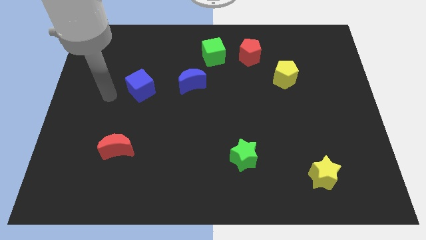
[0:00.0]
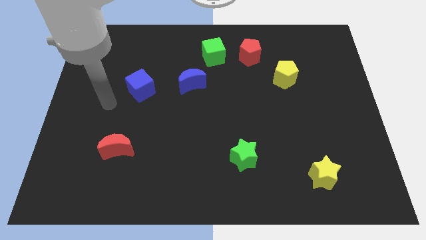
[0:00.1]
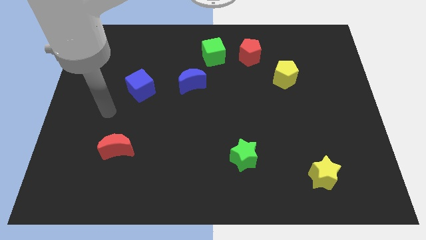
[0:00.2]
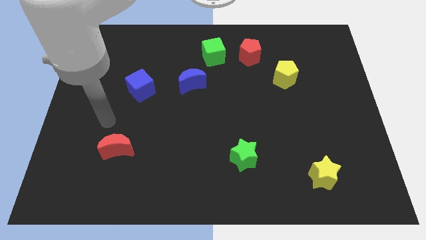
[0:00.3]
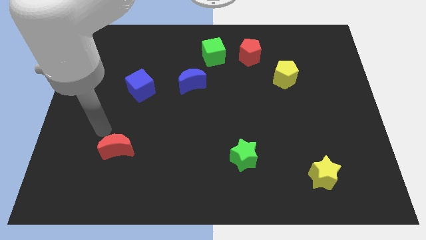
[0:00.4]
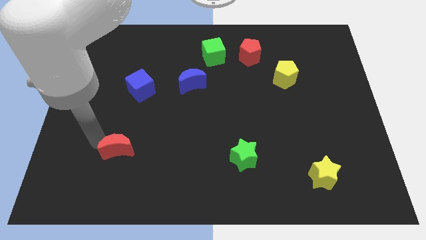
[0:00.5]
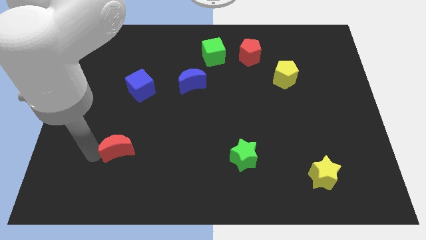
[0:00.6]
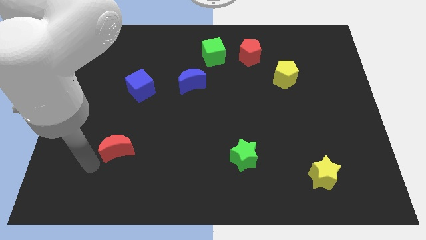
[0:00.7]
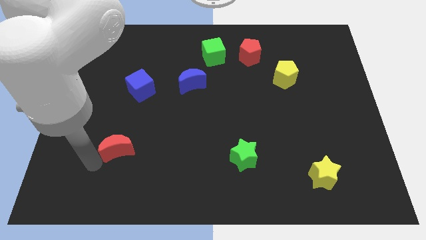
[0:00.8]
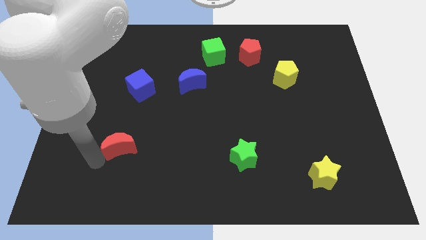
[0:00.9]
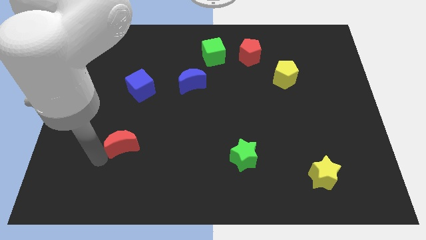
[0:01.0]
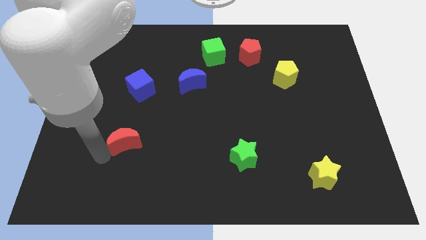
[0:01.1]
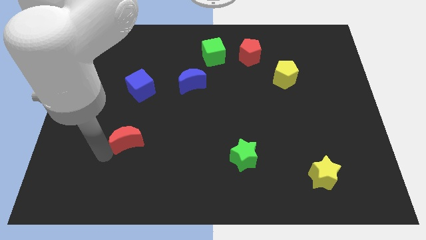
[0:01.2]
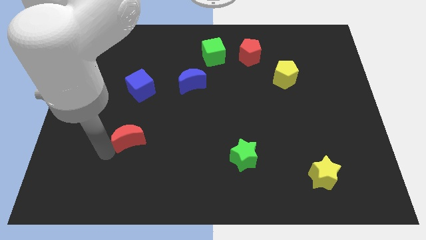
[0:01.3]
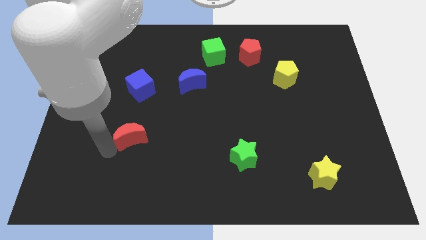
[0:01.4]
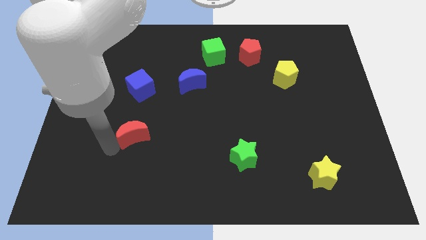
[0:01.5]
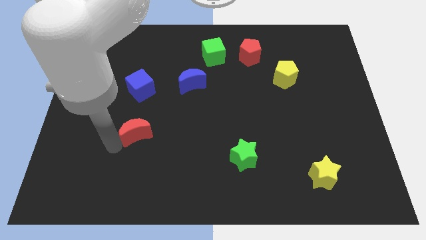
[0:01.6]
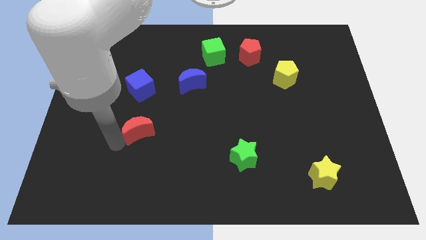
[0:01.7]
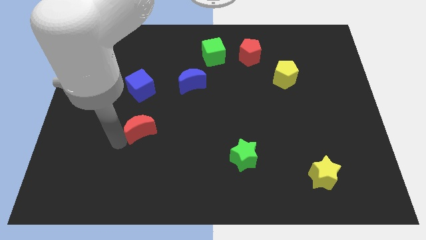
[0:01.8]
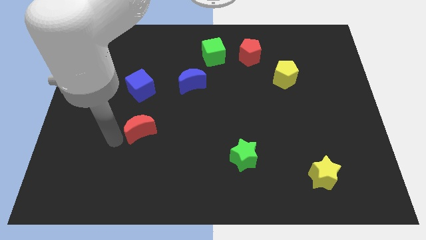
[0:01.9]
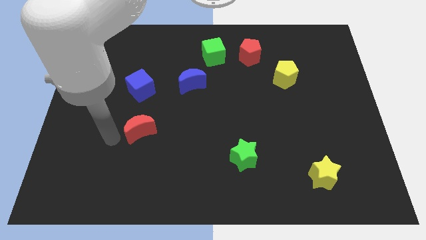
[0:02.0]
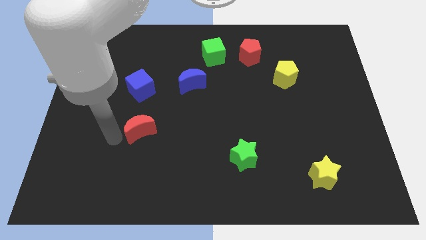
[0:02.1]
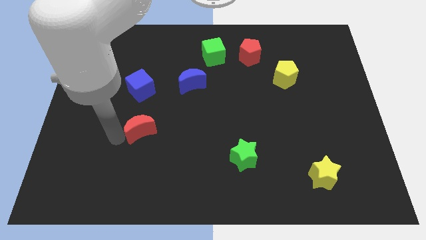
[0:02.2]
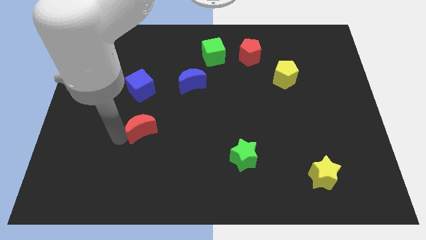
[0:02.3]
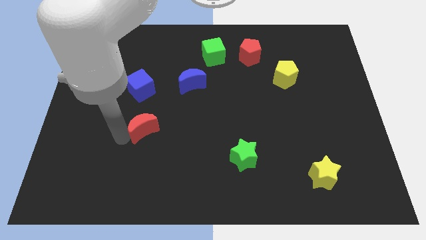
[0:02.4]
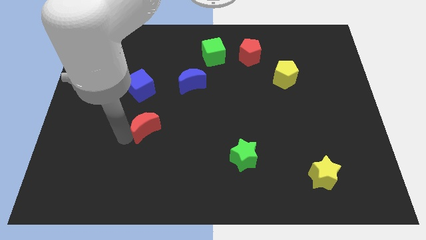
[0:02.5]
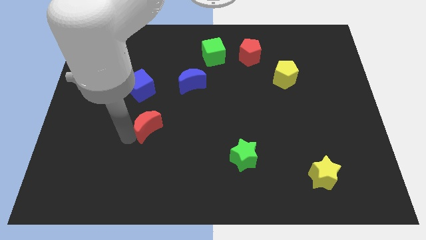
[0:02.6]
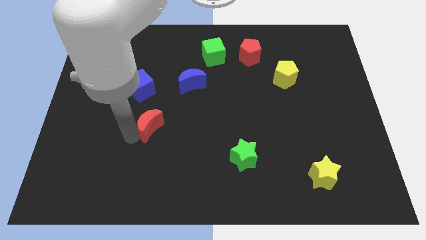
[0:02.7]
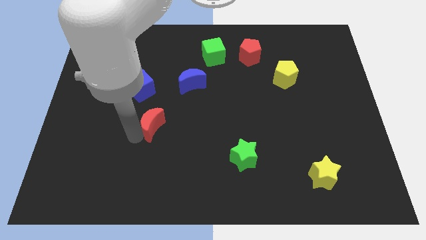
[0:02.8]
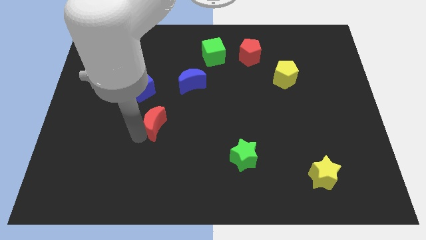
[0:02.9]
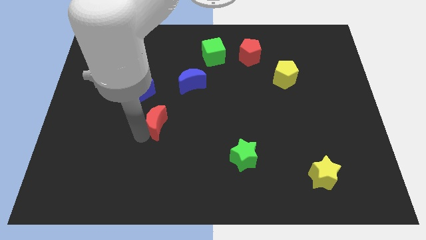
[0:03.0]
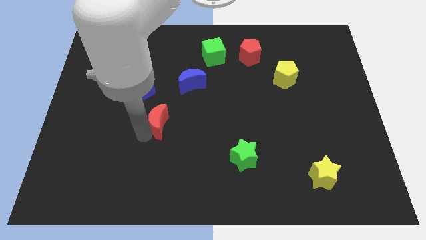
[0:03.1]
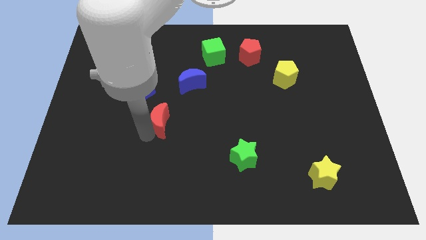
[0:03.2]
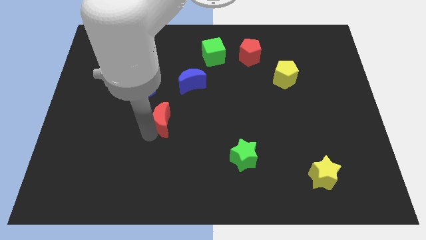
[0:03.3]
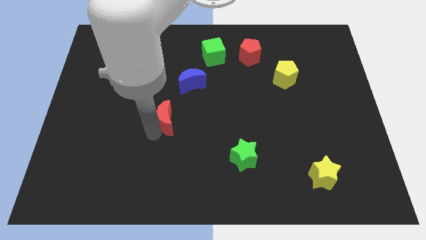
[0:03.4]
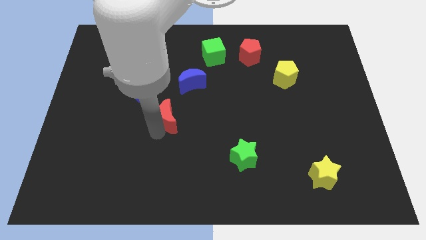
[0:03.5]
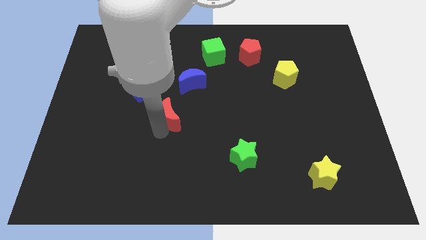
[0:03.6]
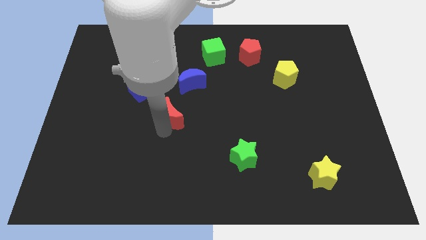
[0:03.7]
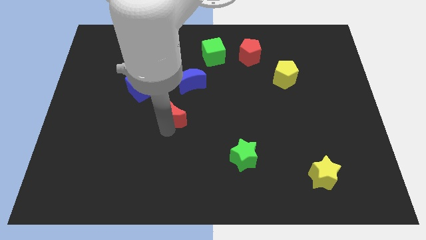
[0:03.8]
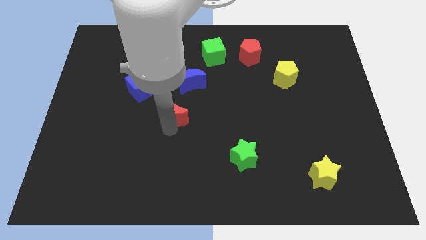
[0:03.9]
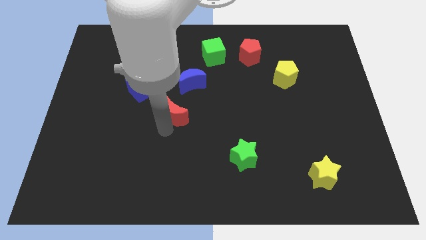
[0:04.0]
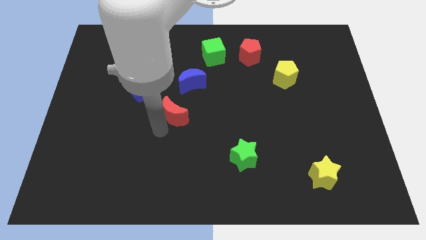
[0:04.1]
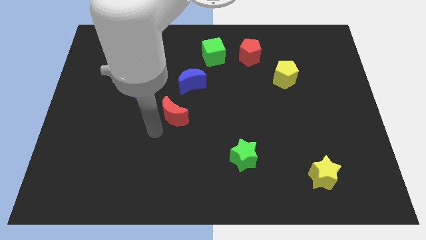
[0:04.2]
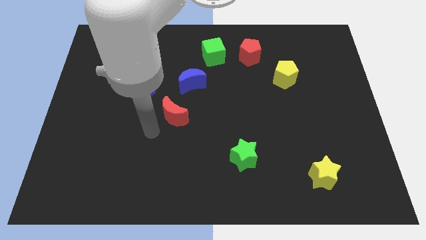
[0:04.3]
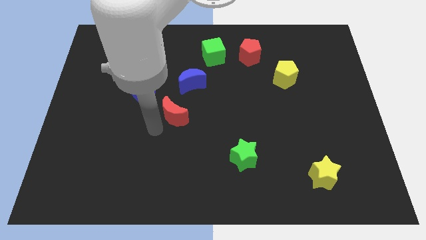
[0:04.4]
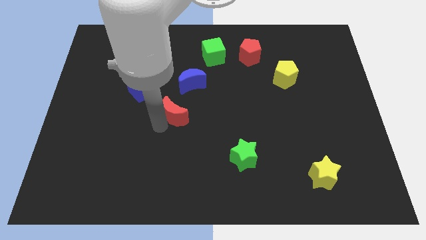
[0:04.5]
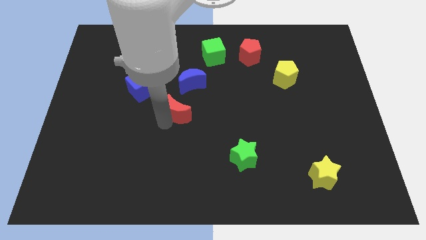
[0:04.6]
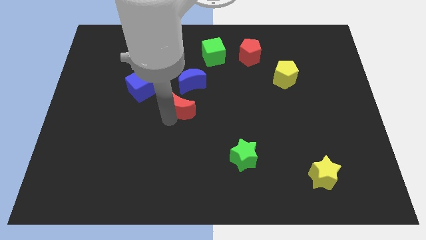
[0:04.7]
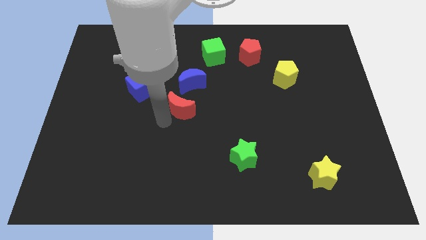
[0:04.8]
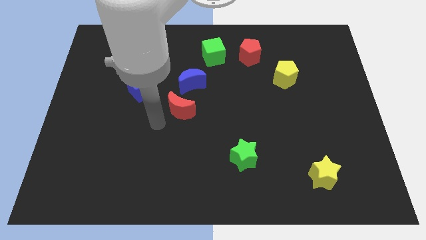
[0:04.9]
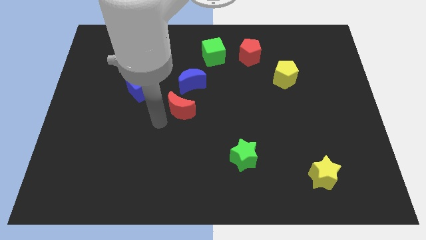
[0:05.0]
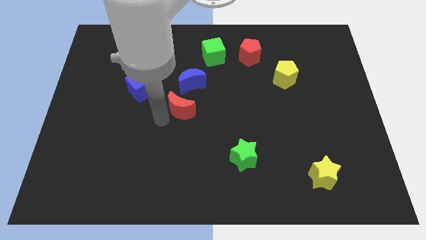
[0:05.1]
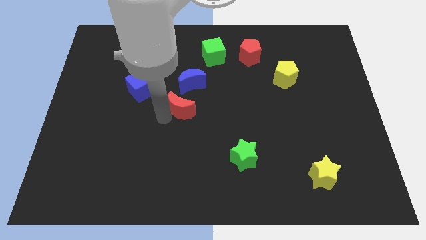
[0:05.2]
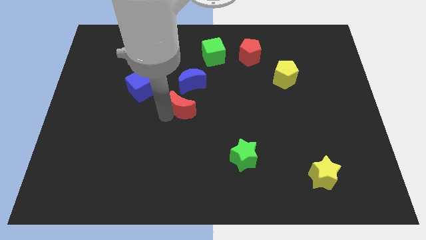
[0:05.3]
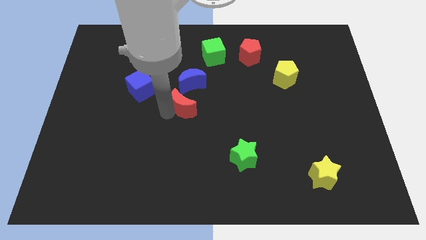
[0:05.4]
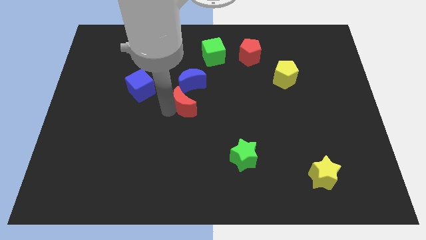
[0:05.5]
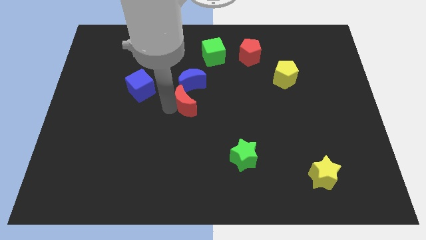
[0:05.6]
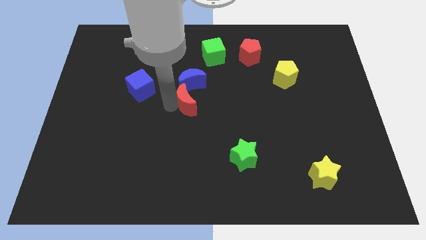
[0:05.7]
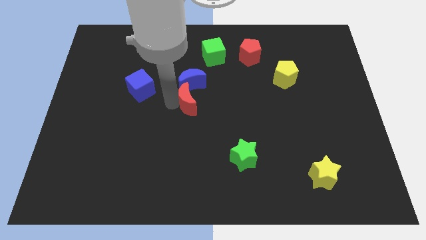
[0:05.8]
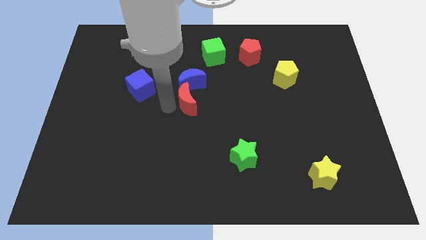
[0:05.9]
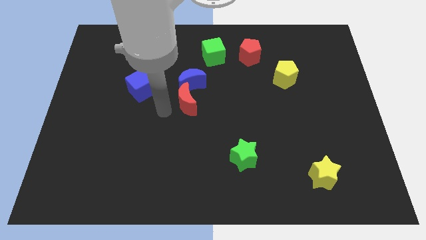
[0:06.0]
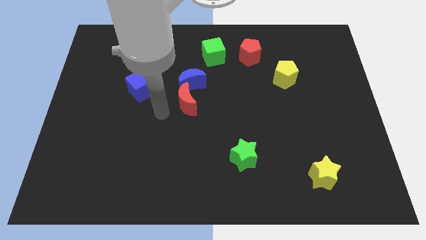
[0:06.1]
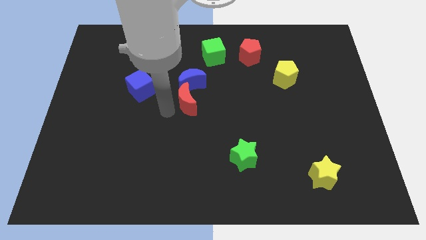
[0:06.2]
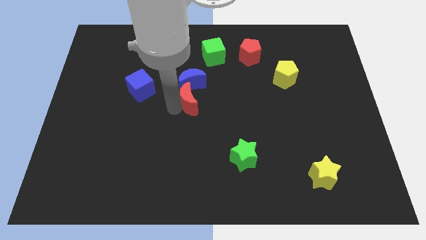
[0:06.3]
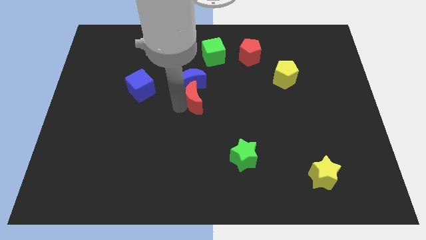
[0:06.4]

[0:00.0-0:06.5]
push the red moon up and to the right

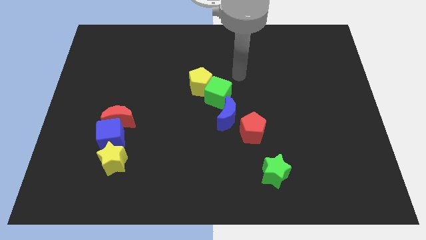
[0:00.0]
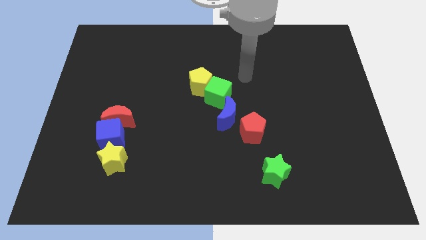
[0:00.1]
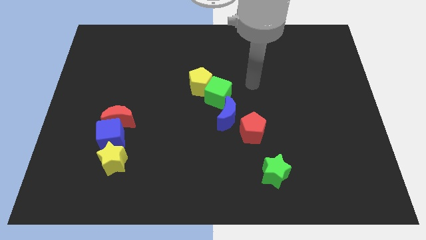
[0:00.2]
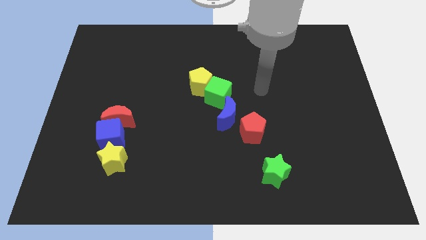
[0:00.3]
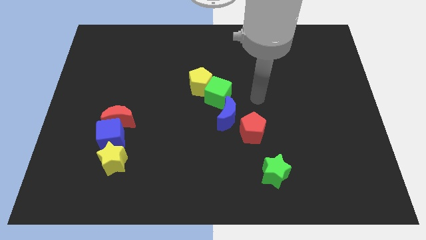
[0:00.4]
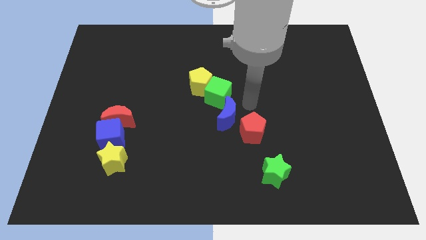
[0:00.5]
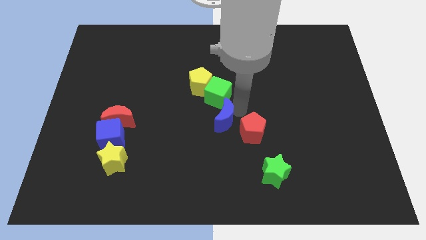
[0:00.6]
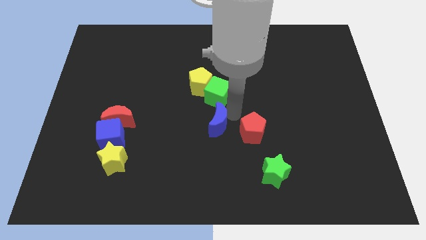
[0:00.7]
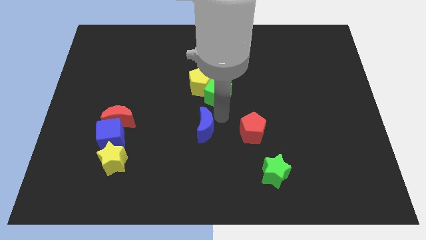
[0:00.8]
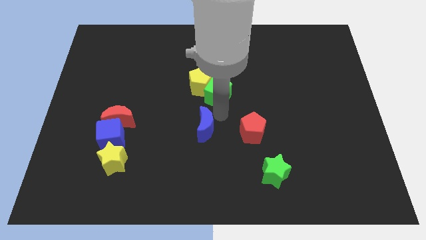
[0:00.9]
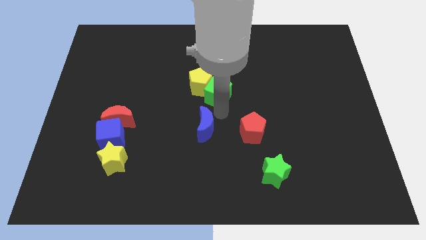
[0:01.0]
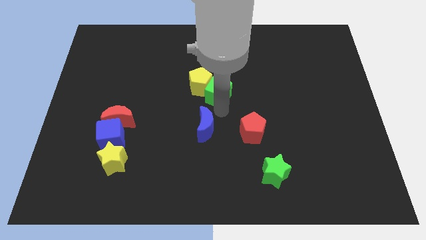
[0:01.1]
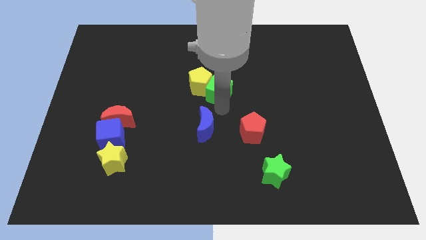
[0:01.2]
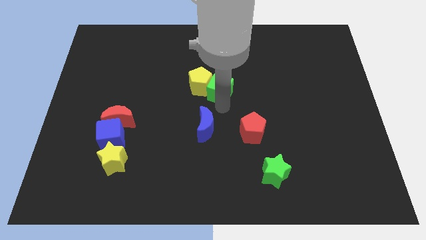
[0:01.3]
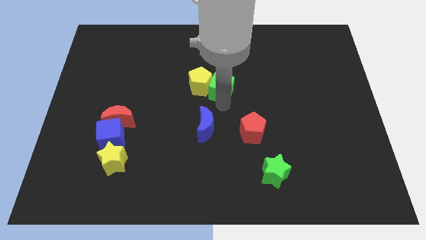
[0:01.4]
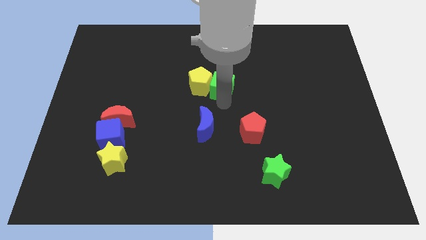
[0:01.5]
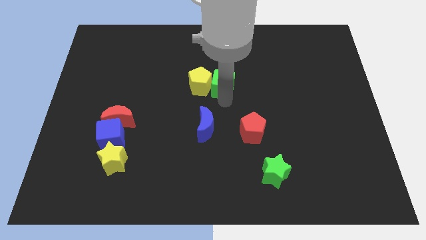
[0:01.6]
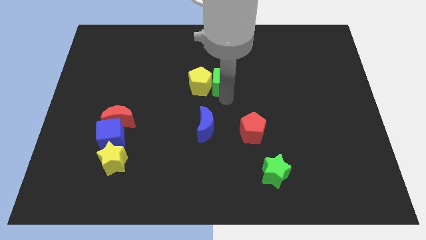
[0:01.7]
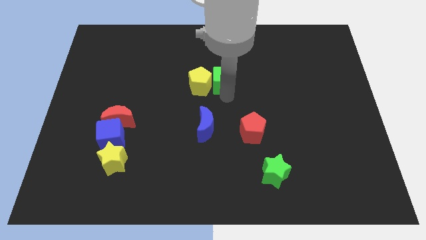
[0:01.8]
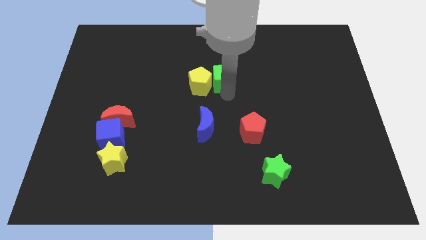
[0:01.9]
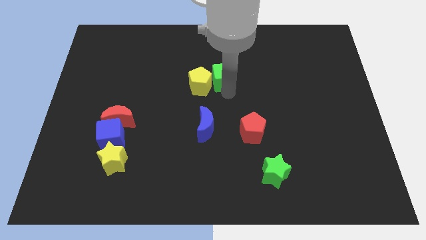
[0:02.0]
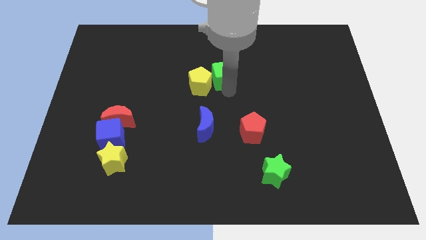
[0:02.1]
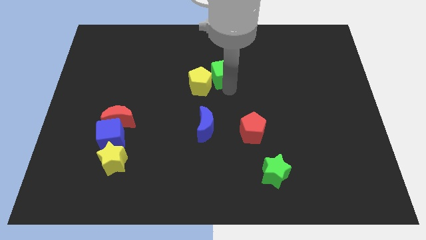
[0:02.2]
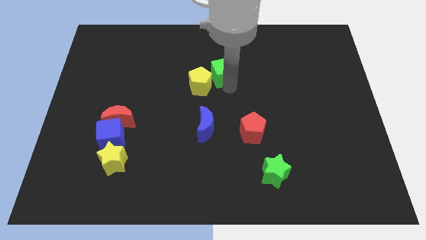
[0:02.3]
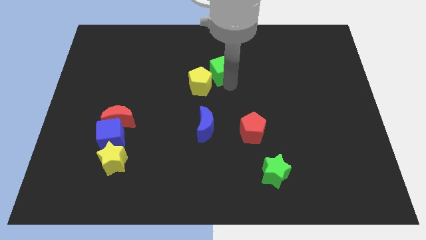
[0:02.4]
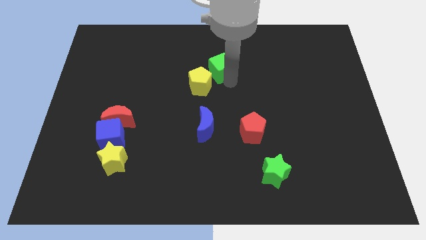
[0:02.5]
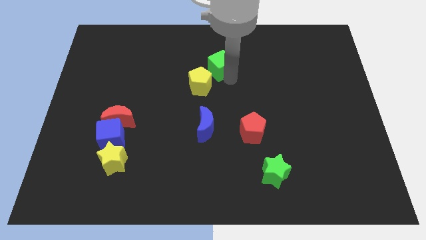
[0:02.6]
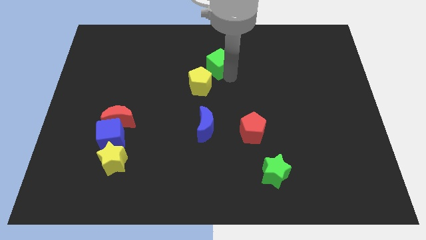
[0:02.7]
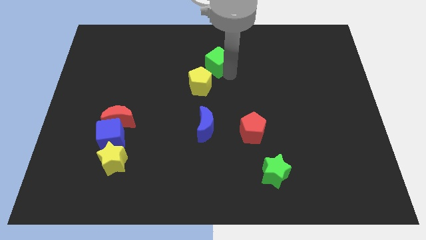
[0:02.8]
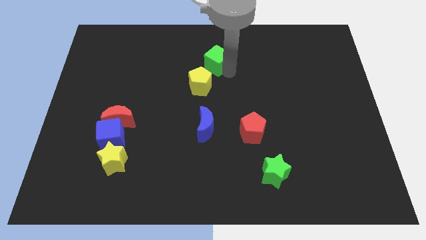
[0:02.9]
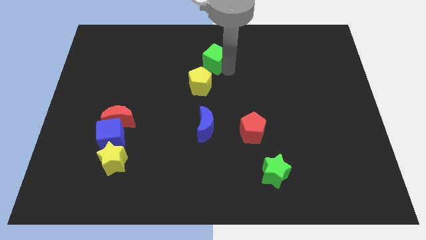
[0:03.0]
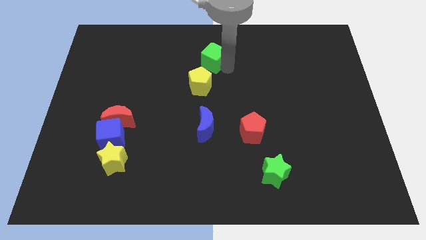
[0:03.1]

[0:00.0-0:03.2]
move the green cube upwards and left diagonally a bit
